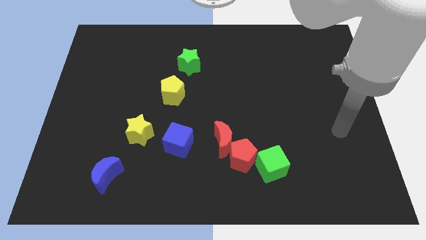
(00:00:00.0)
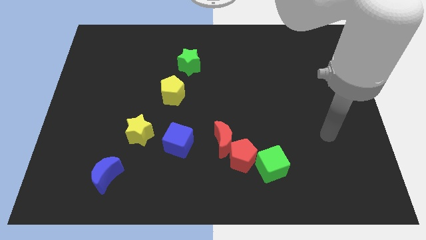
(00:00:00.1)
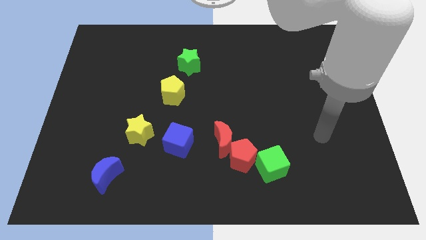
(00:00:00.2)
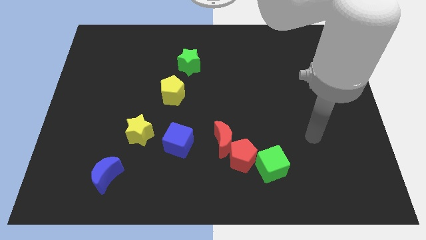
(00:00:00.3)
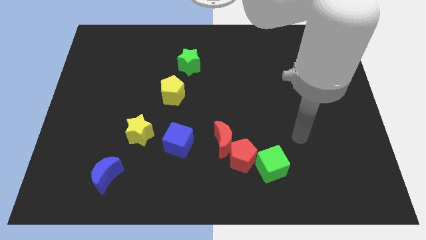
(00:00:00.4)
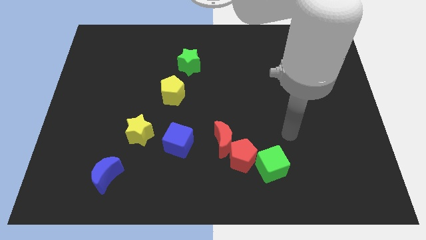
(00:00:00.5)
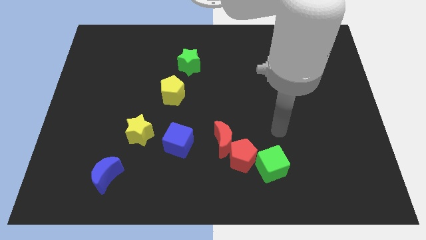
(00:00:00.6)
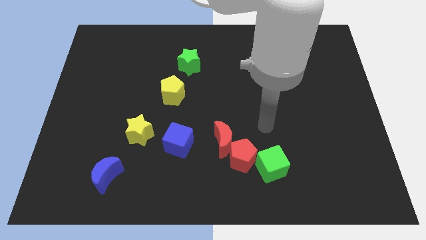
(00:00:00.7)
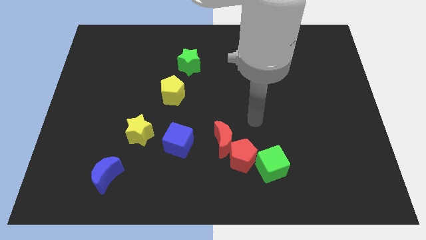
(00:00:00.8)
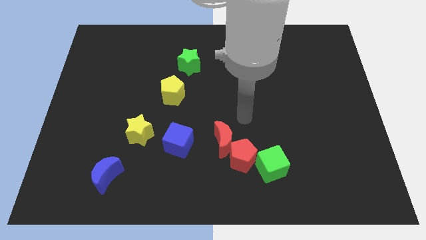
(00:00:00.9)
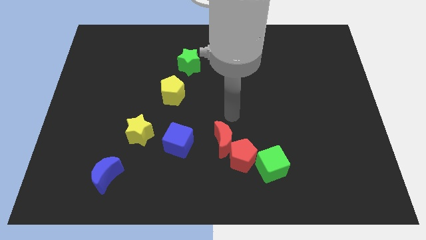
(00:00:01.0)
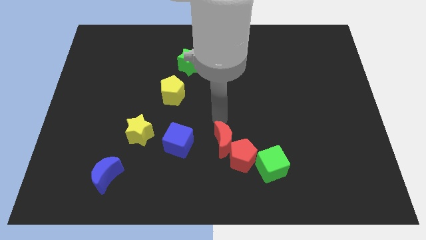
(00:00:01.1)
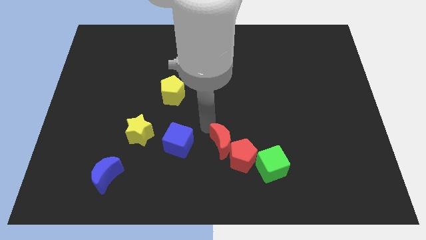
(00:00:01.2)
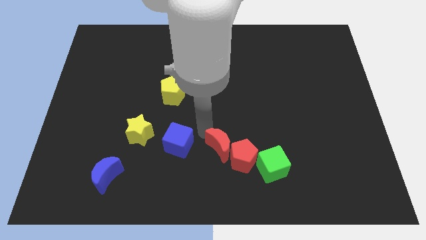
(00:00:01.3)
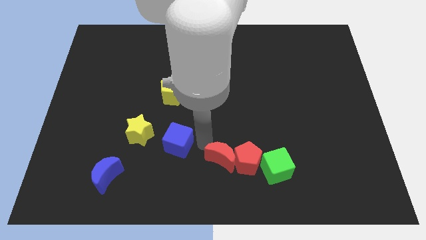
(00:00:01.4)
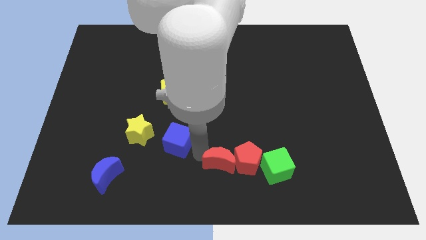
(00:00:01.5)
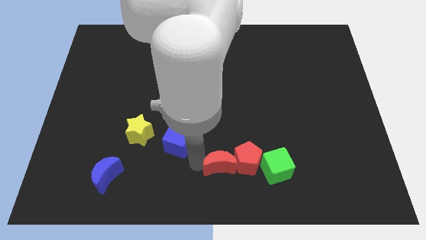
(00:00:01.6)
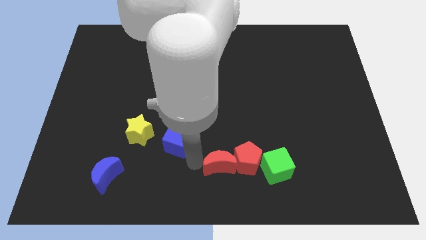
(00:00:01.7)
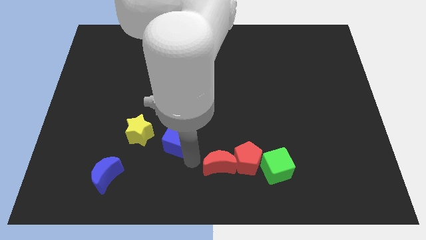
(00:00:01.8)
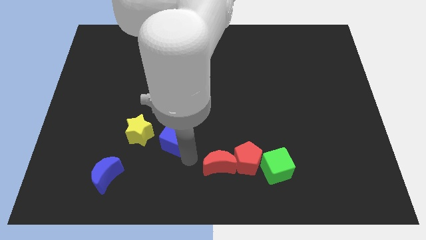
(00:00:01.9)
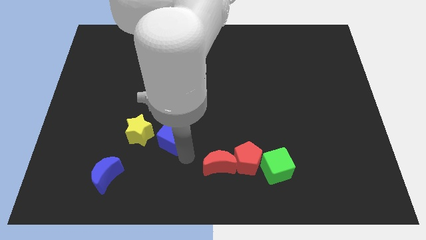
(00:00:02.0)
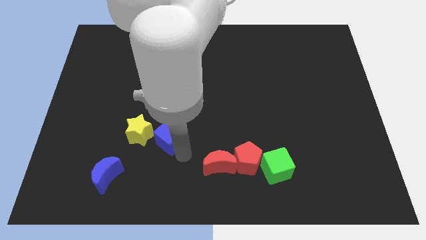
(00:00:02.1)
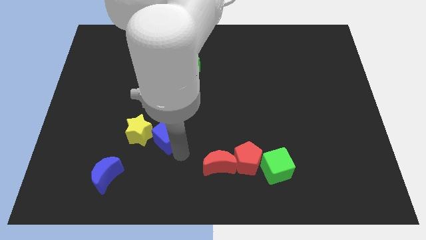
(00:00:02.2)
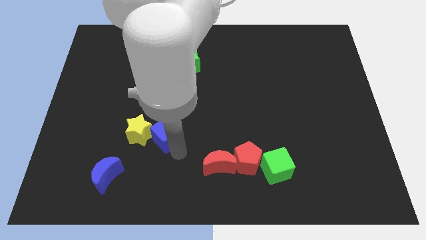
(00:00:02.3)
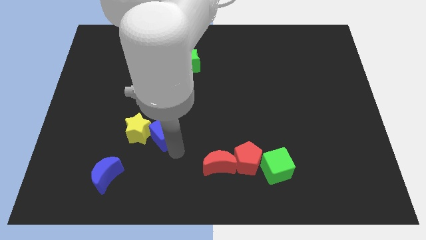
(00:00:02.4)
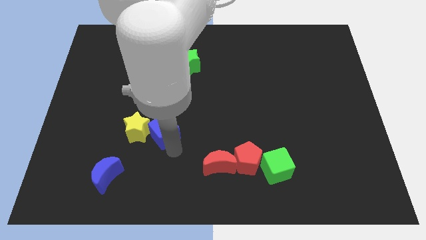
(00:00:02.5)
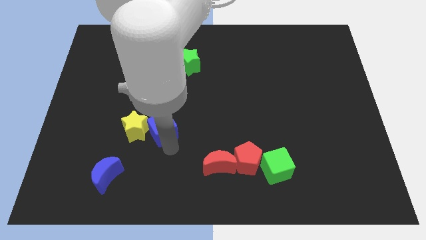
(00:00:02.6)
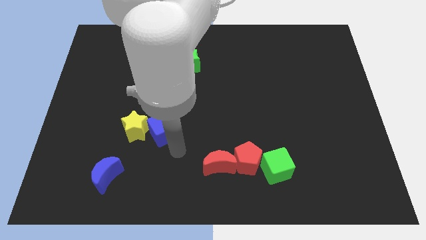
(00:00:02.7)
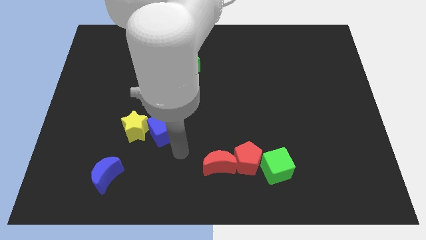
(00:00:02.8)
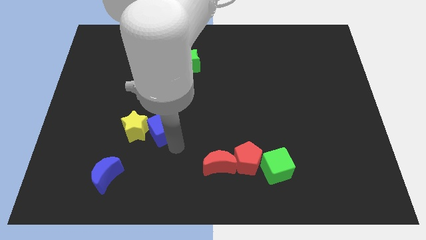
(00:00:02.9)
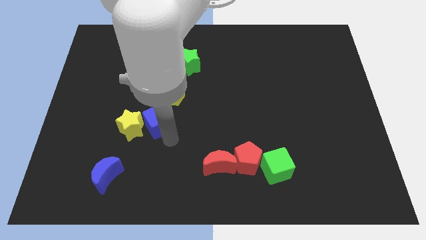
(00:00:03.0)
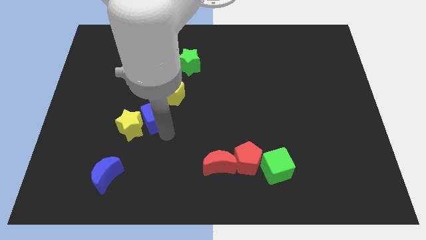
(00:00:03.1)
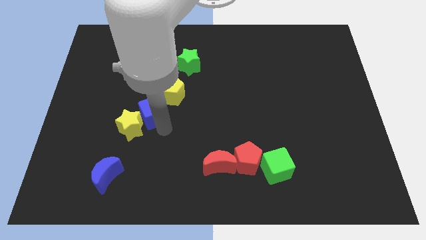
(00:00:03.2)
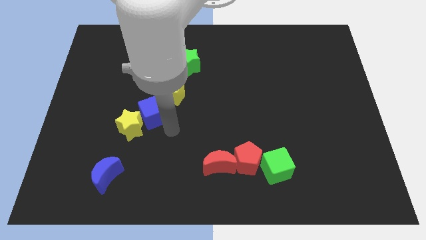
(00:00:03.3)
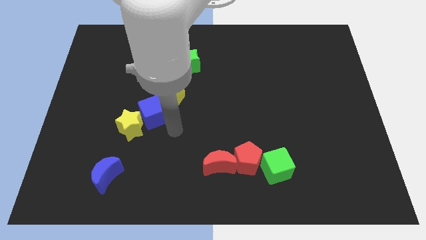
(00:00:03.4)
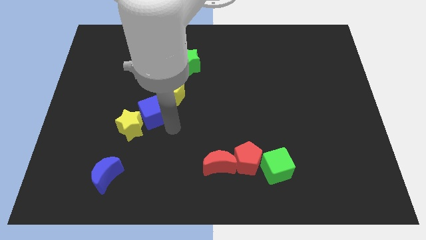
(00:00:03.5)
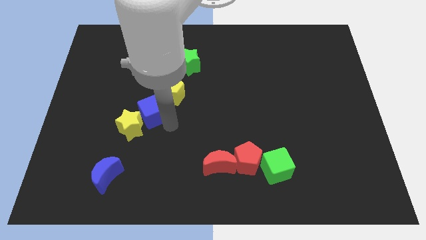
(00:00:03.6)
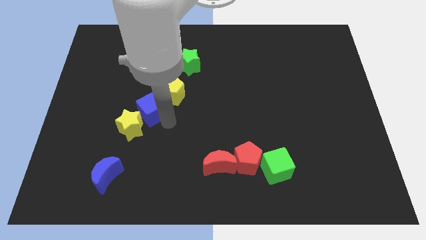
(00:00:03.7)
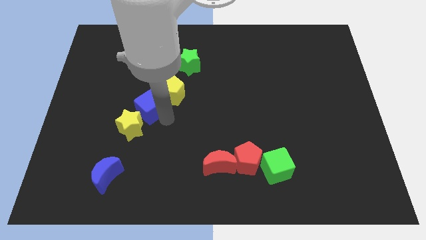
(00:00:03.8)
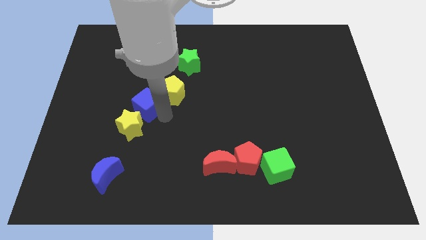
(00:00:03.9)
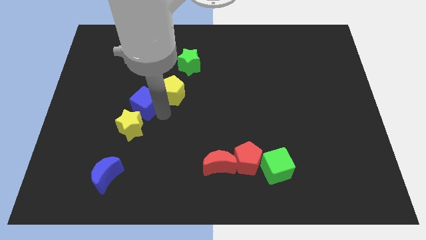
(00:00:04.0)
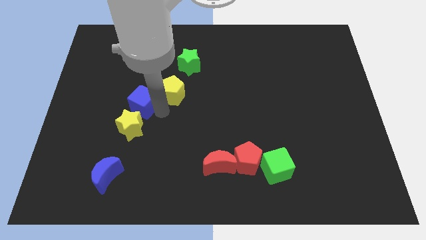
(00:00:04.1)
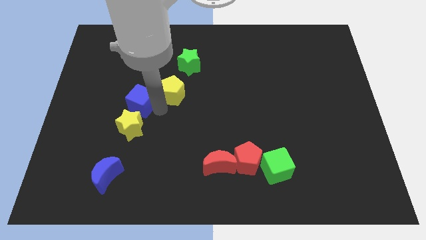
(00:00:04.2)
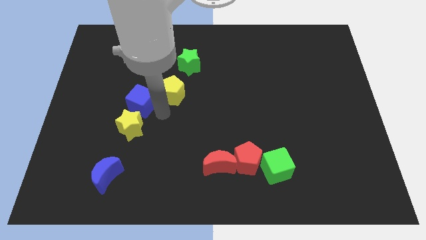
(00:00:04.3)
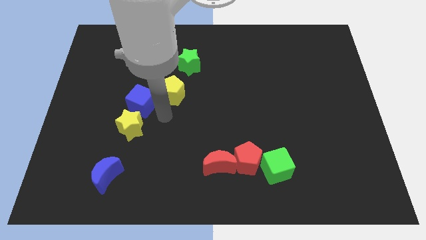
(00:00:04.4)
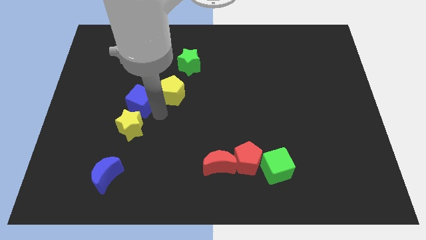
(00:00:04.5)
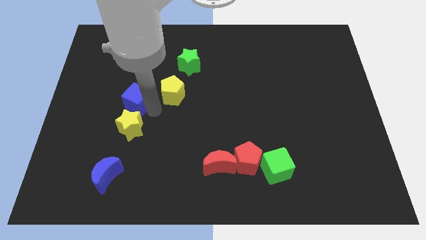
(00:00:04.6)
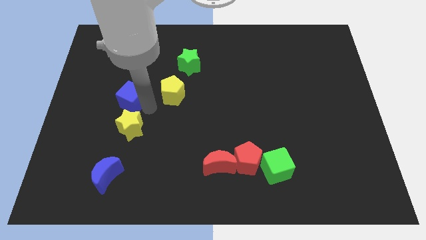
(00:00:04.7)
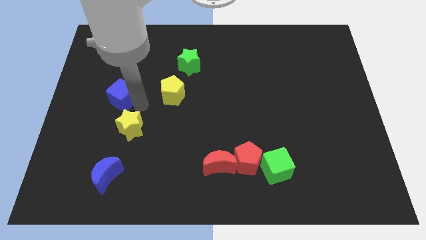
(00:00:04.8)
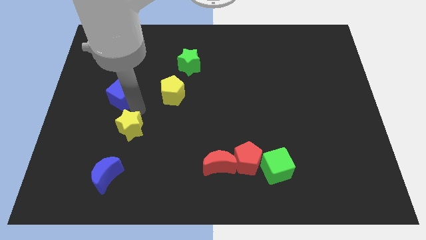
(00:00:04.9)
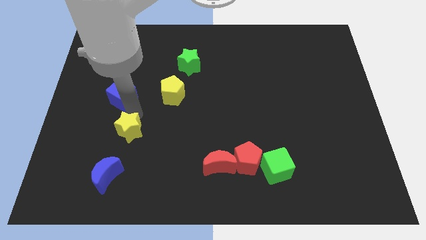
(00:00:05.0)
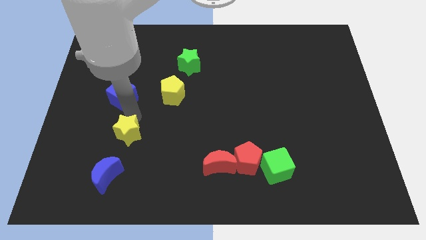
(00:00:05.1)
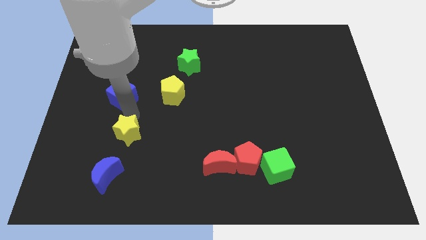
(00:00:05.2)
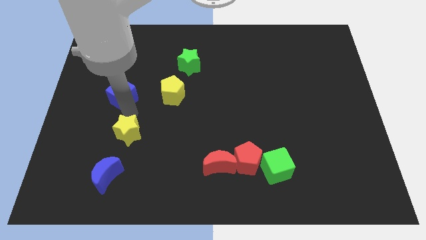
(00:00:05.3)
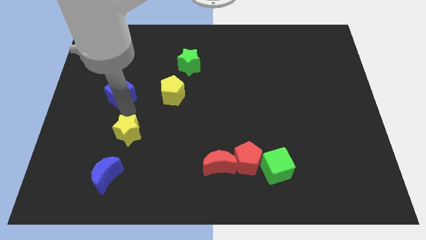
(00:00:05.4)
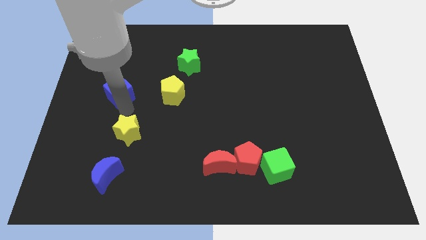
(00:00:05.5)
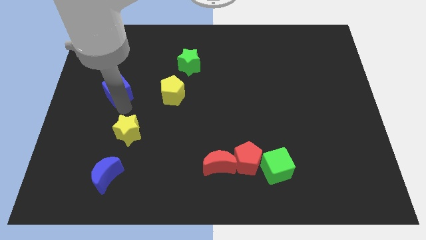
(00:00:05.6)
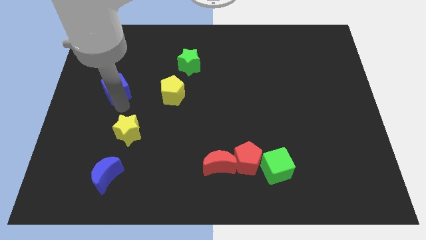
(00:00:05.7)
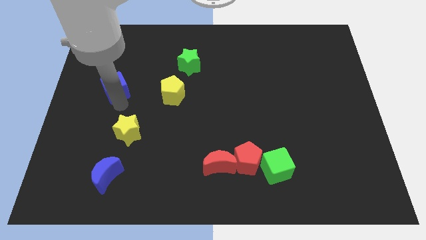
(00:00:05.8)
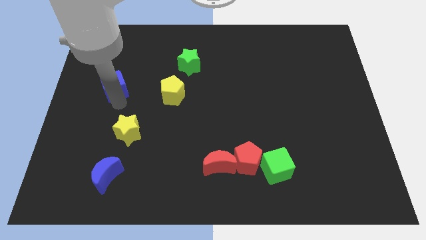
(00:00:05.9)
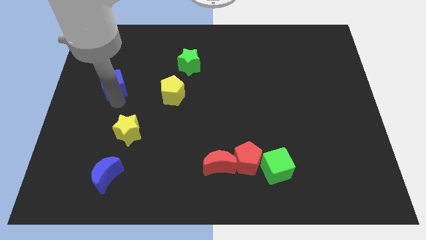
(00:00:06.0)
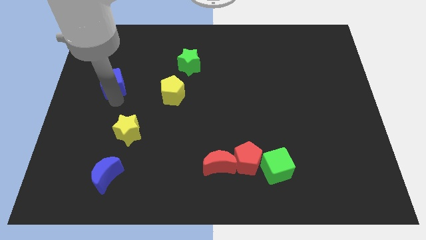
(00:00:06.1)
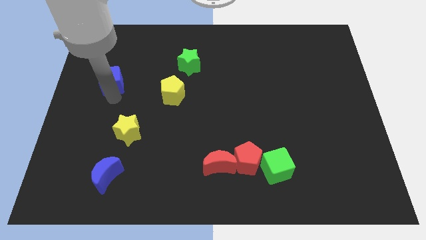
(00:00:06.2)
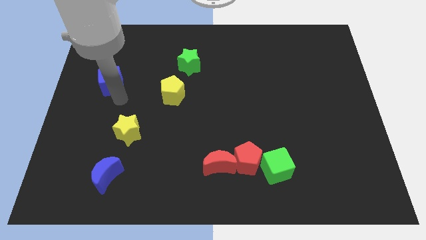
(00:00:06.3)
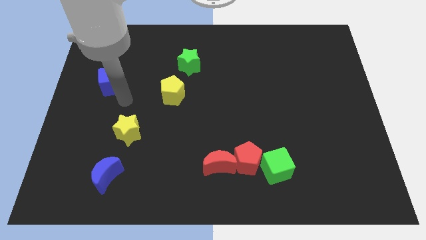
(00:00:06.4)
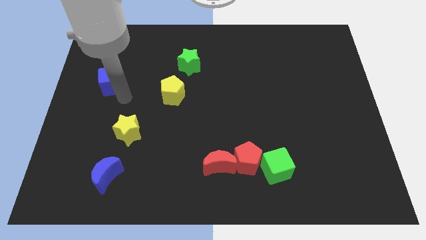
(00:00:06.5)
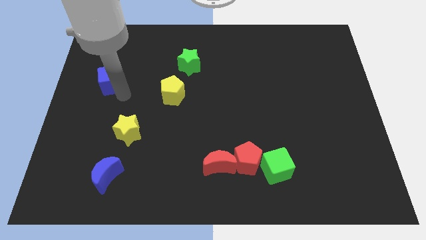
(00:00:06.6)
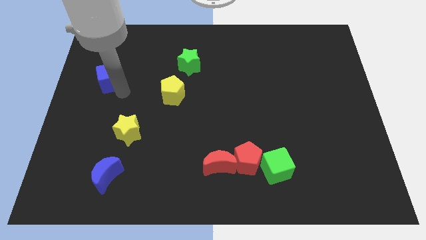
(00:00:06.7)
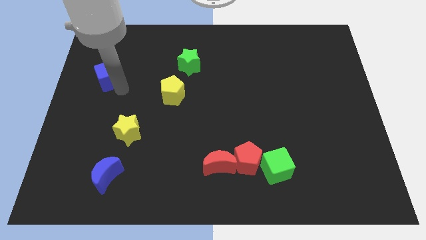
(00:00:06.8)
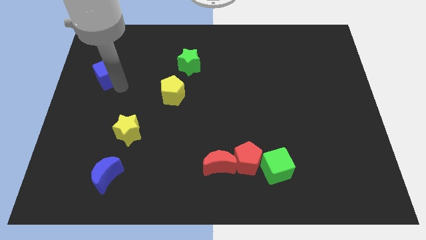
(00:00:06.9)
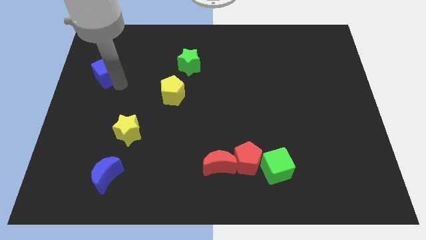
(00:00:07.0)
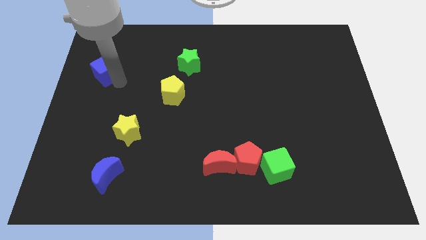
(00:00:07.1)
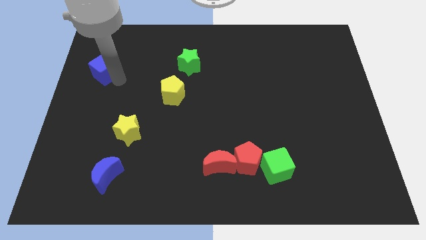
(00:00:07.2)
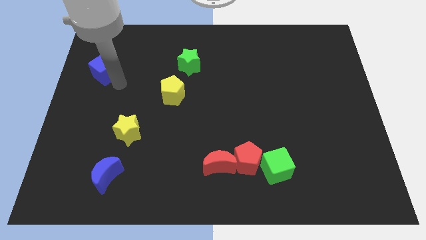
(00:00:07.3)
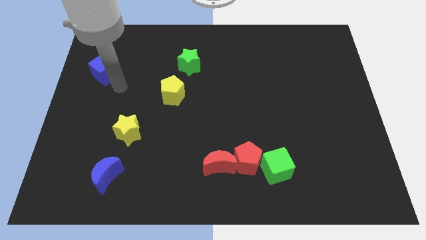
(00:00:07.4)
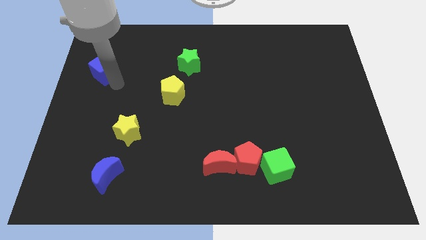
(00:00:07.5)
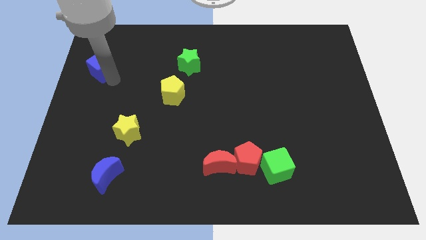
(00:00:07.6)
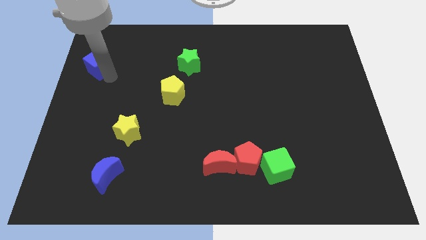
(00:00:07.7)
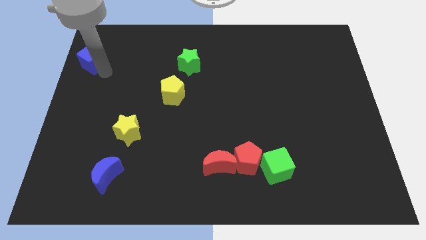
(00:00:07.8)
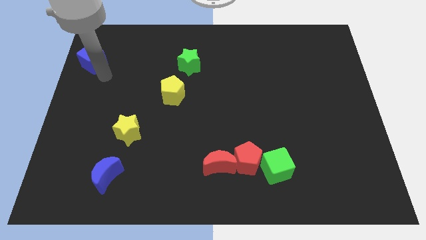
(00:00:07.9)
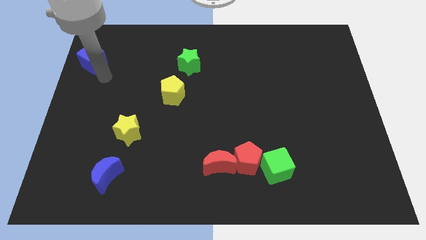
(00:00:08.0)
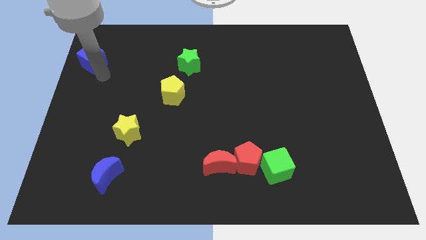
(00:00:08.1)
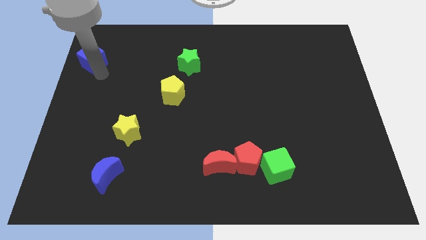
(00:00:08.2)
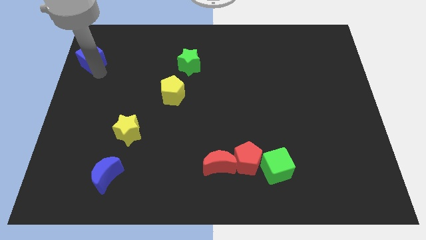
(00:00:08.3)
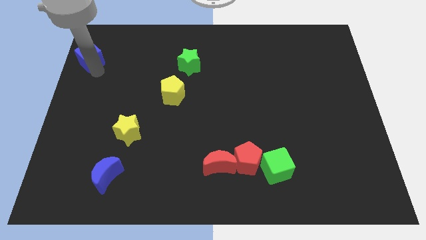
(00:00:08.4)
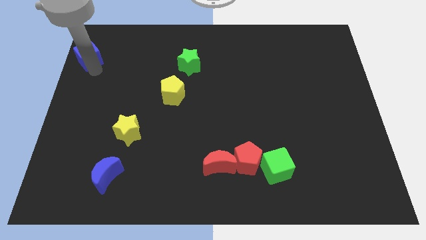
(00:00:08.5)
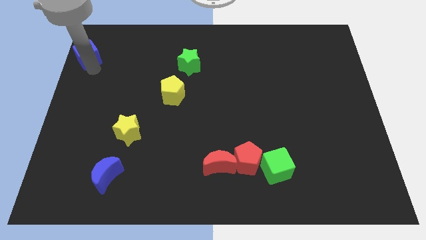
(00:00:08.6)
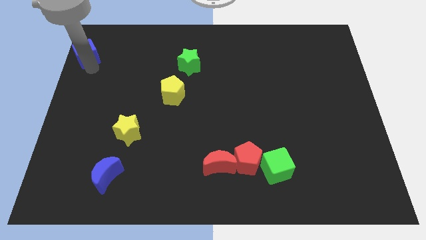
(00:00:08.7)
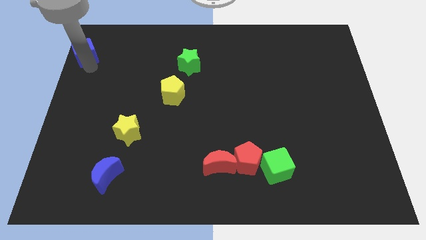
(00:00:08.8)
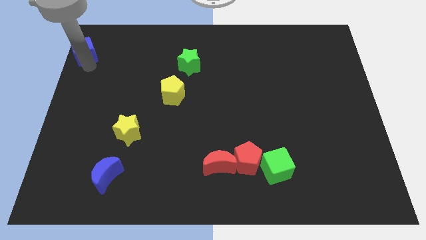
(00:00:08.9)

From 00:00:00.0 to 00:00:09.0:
slide the blue cube to the top left of the board
